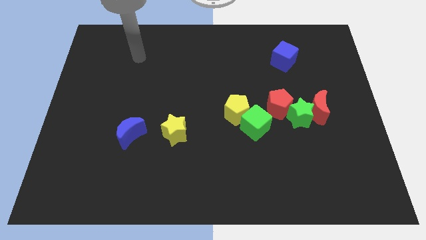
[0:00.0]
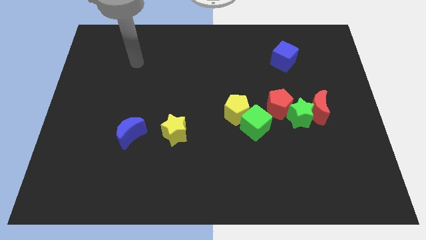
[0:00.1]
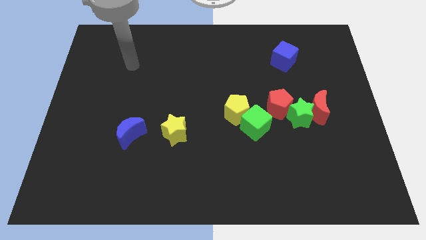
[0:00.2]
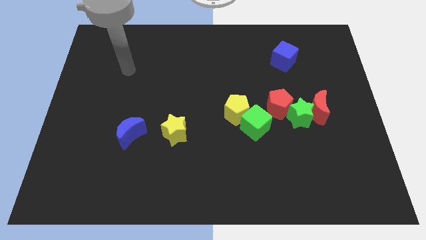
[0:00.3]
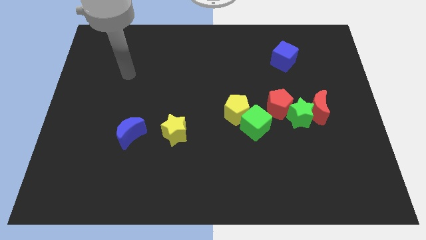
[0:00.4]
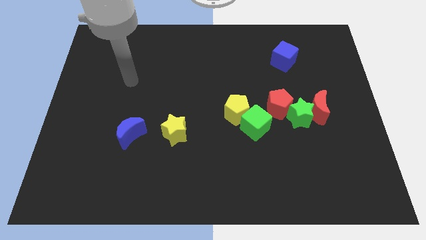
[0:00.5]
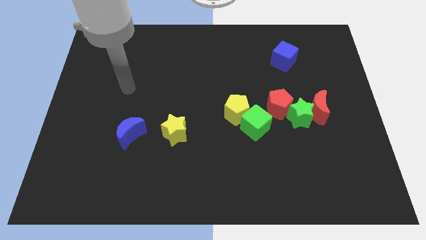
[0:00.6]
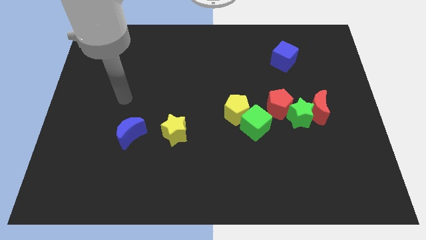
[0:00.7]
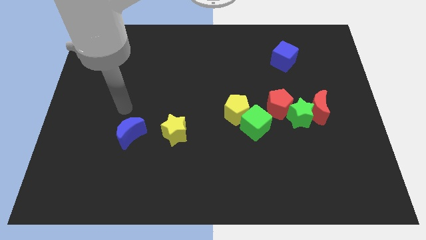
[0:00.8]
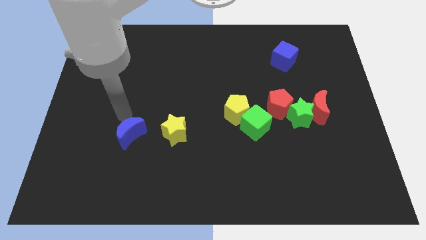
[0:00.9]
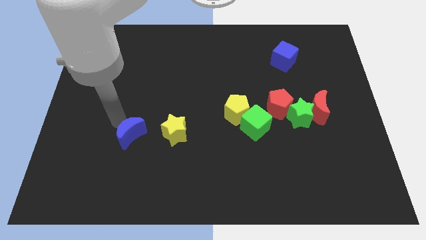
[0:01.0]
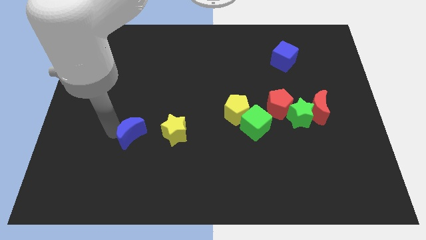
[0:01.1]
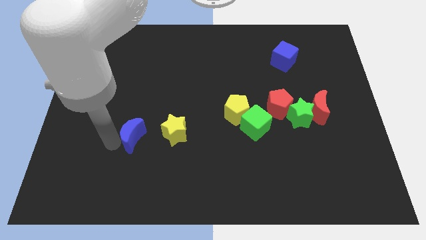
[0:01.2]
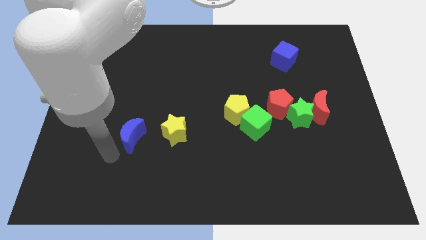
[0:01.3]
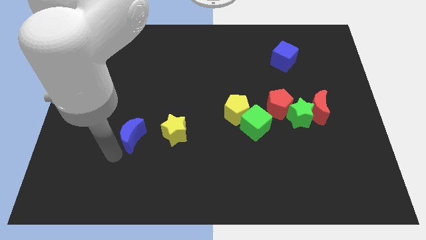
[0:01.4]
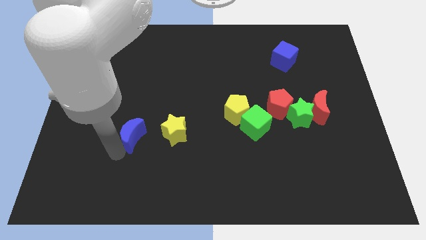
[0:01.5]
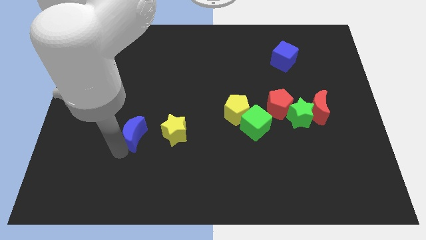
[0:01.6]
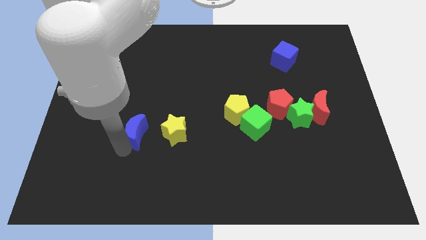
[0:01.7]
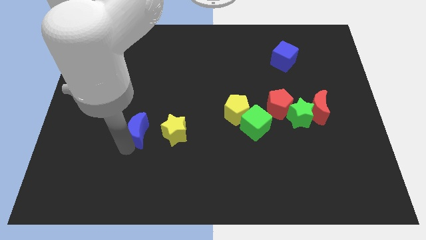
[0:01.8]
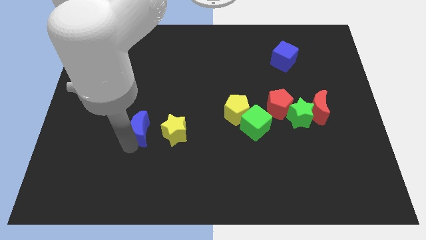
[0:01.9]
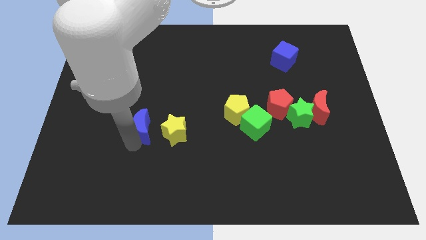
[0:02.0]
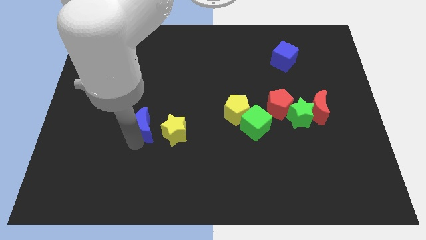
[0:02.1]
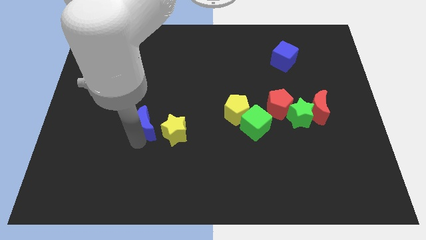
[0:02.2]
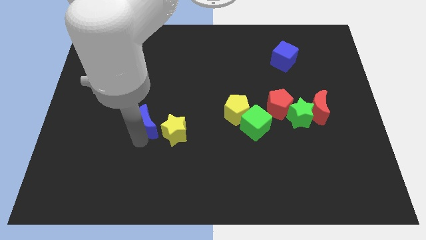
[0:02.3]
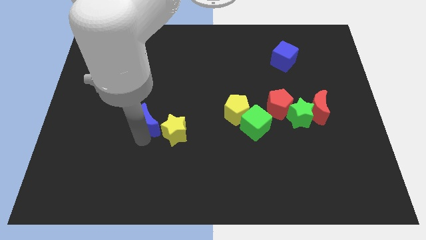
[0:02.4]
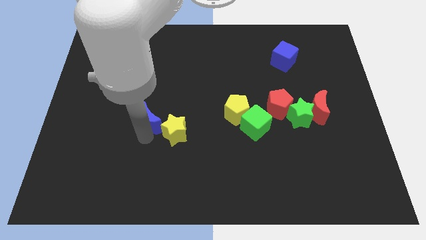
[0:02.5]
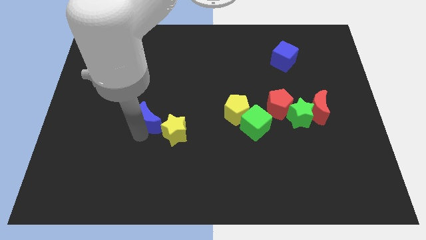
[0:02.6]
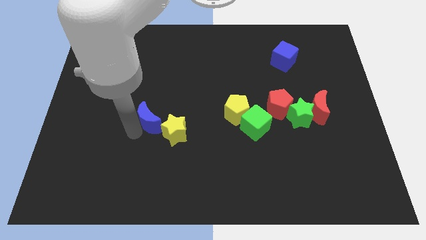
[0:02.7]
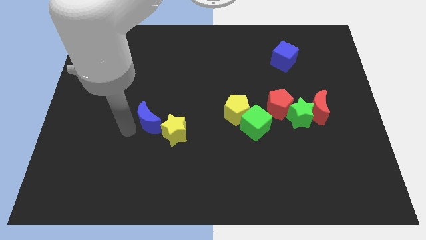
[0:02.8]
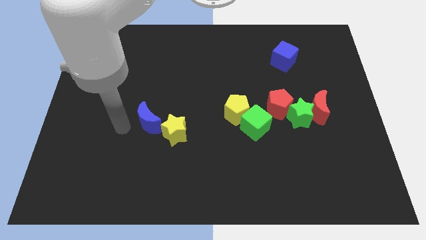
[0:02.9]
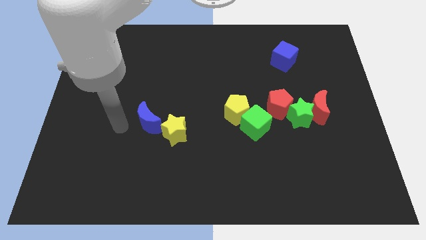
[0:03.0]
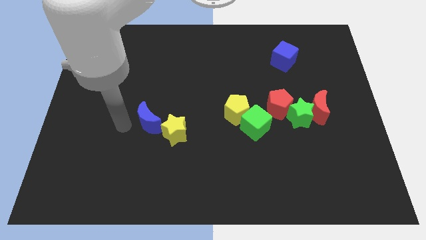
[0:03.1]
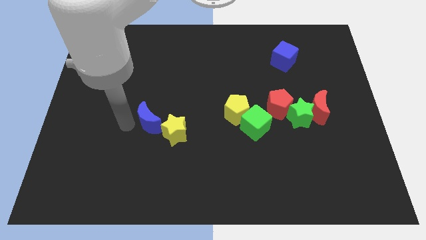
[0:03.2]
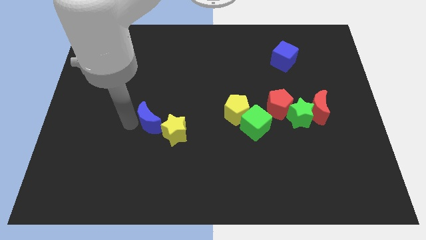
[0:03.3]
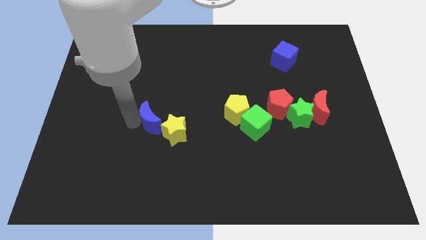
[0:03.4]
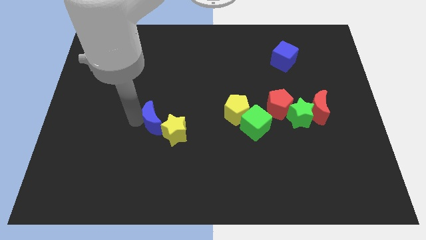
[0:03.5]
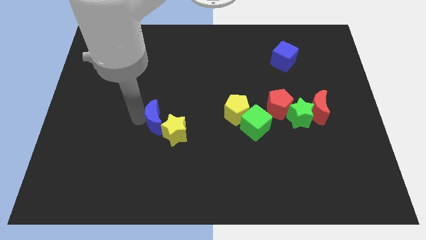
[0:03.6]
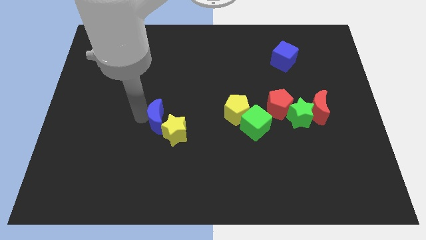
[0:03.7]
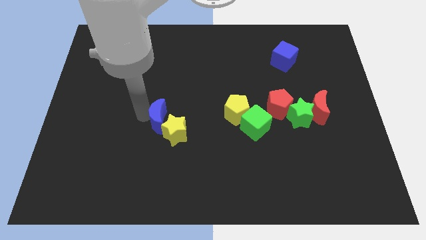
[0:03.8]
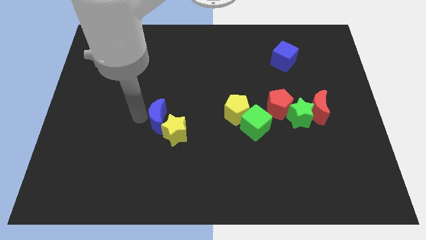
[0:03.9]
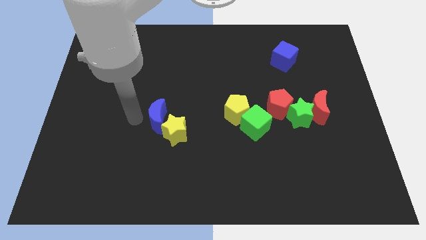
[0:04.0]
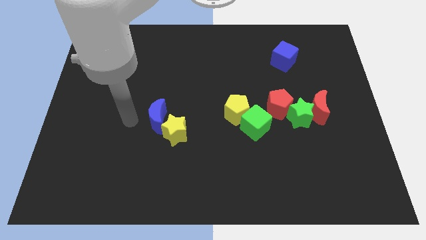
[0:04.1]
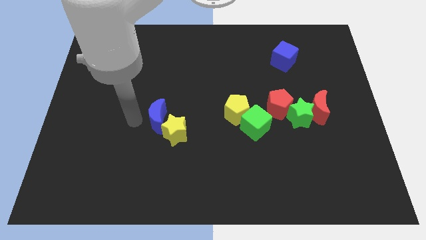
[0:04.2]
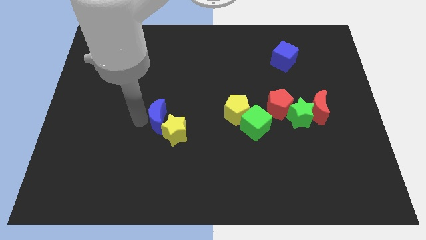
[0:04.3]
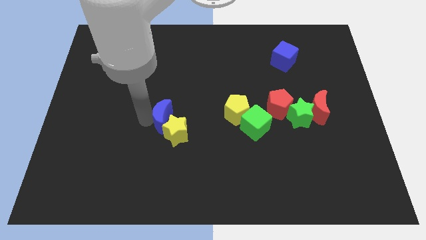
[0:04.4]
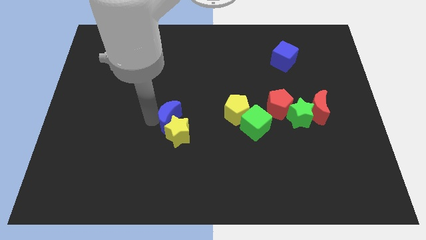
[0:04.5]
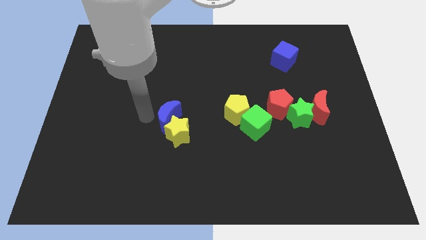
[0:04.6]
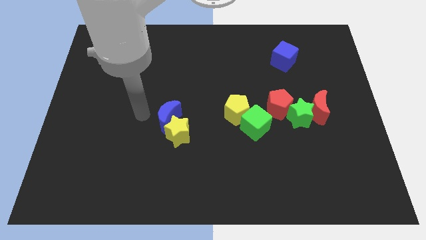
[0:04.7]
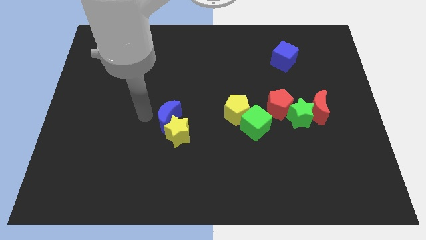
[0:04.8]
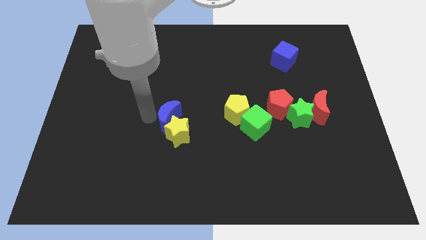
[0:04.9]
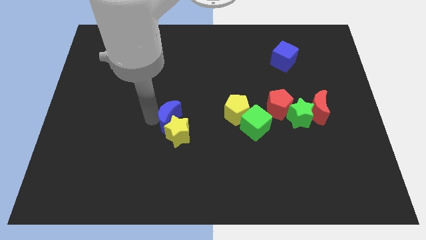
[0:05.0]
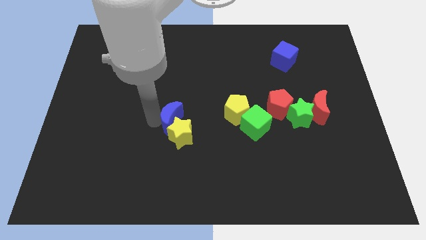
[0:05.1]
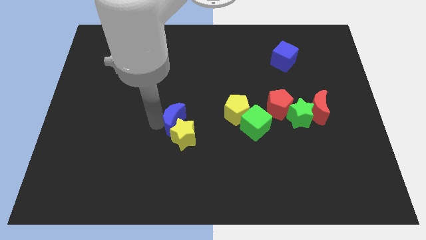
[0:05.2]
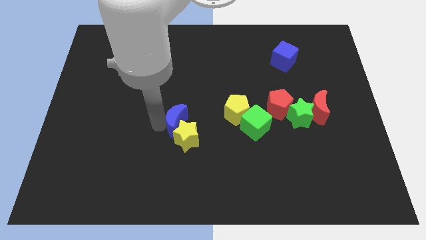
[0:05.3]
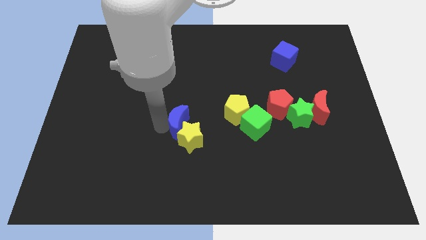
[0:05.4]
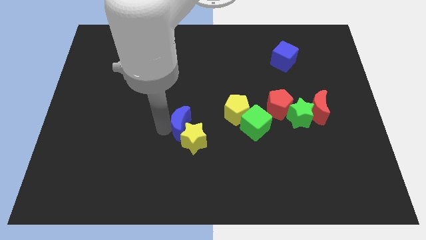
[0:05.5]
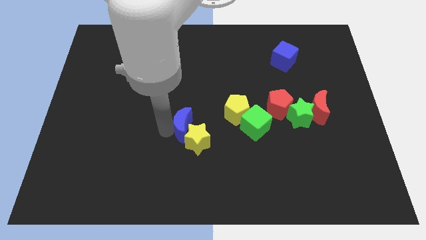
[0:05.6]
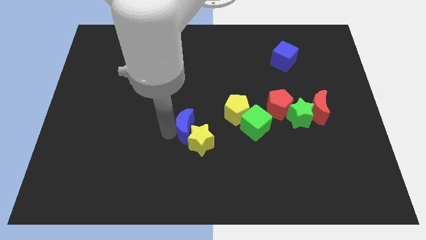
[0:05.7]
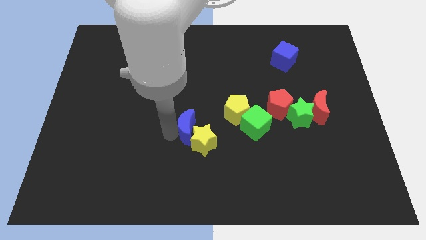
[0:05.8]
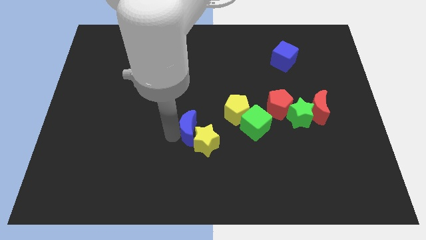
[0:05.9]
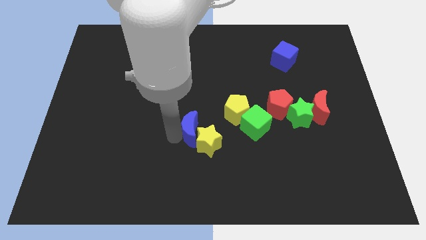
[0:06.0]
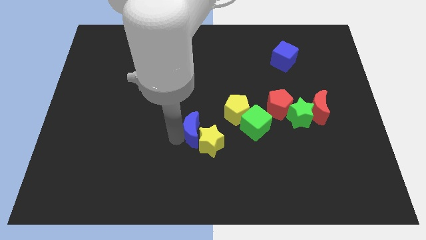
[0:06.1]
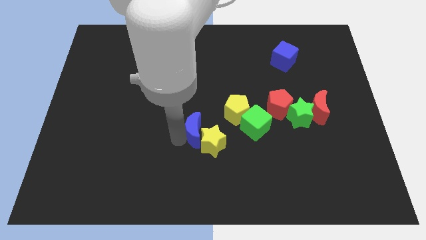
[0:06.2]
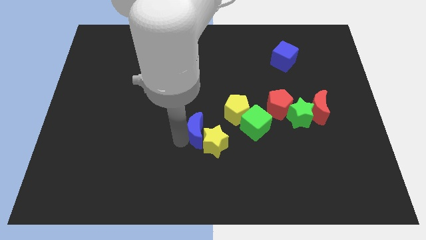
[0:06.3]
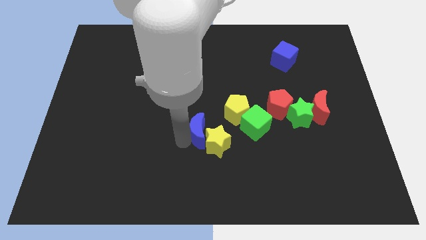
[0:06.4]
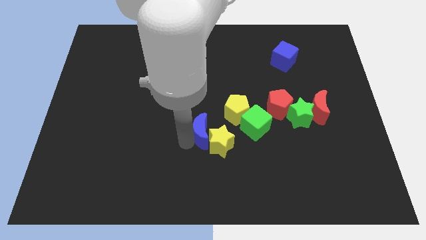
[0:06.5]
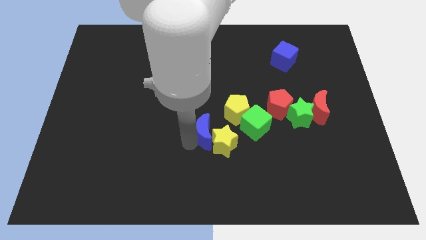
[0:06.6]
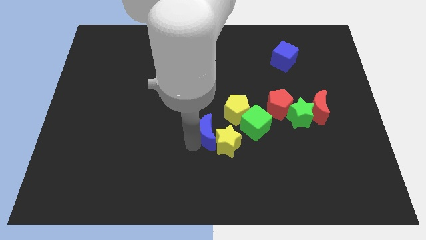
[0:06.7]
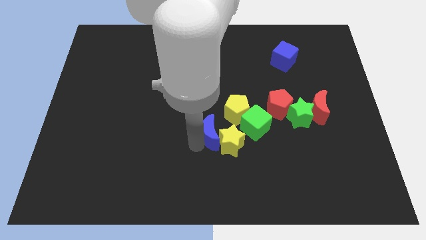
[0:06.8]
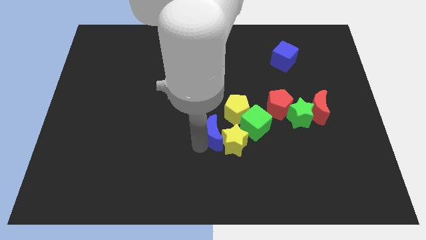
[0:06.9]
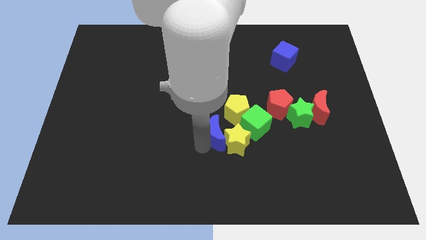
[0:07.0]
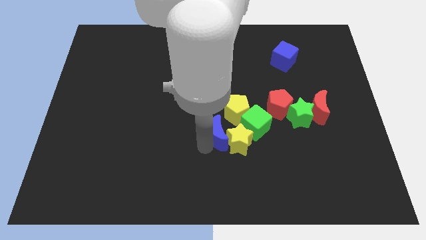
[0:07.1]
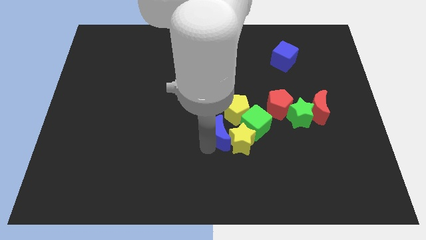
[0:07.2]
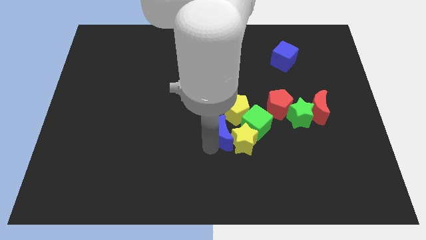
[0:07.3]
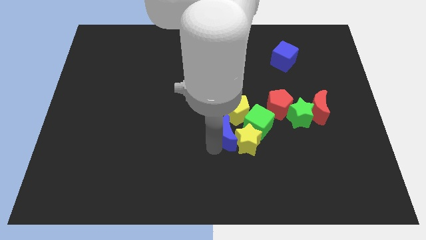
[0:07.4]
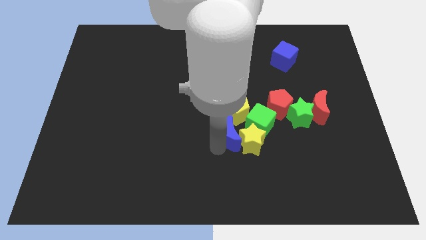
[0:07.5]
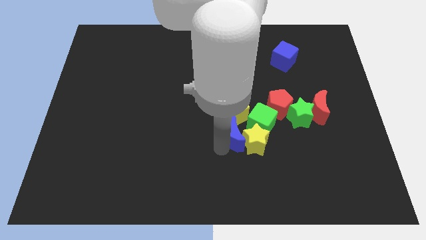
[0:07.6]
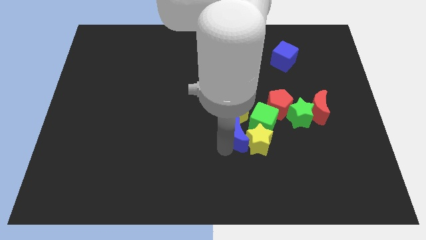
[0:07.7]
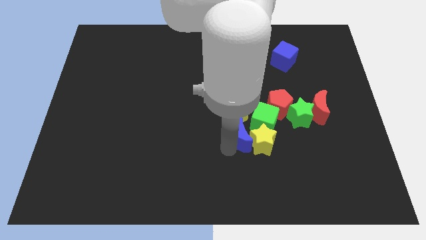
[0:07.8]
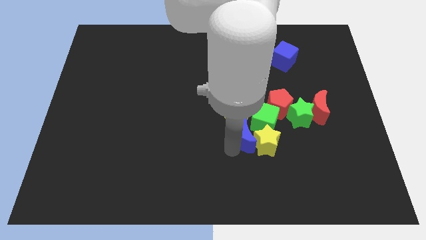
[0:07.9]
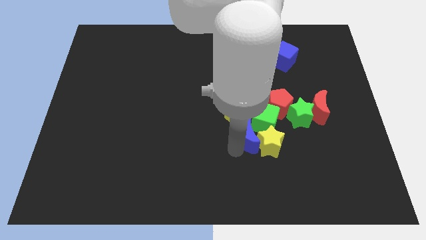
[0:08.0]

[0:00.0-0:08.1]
slide the blue moon close to the green cube
